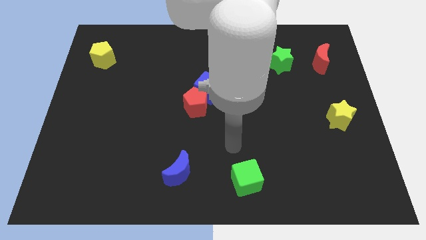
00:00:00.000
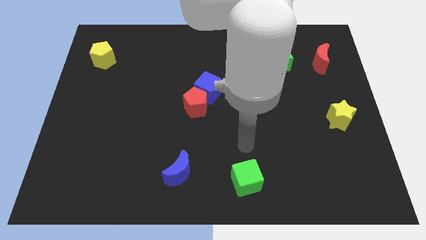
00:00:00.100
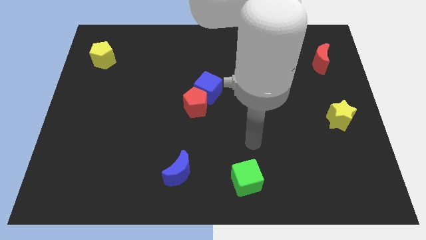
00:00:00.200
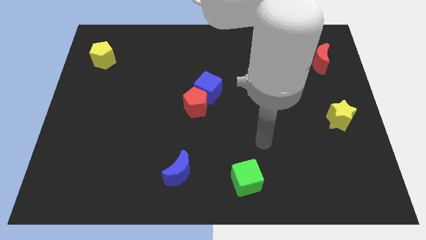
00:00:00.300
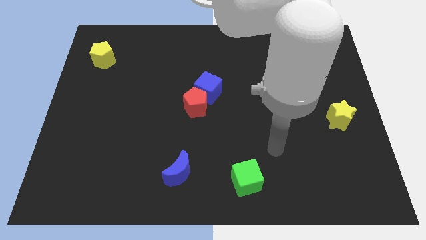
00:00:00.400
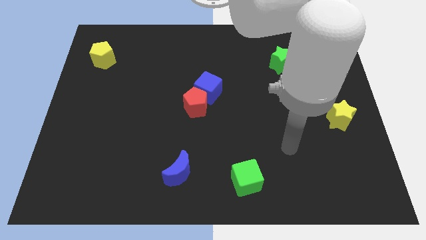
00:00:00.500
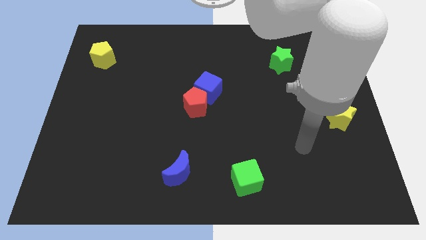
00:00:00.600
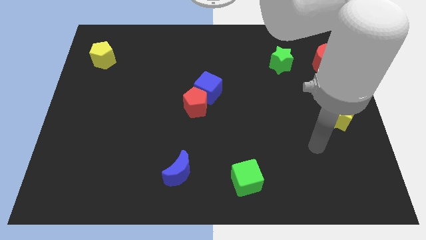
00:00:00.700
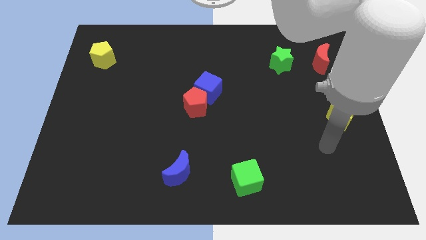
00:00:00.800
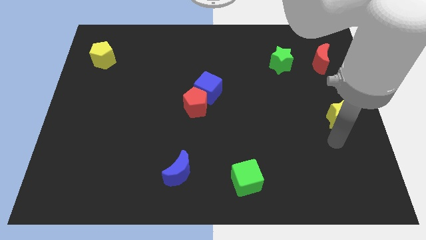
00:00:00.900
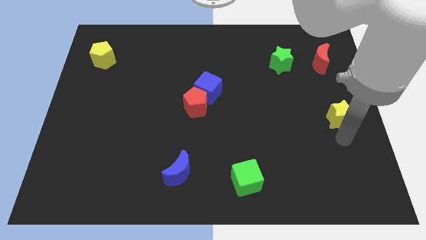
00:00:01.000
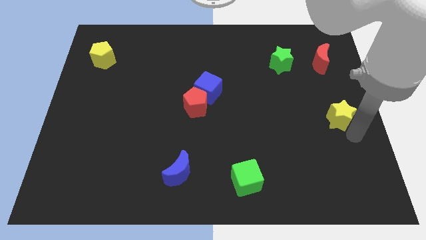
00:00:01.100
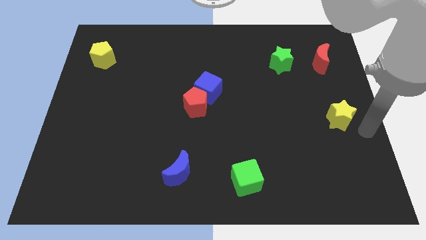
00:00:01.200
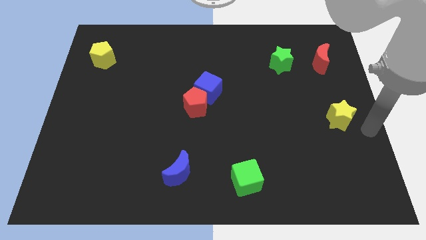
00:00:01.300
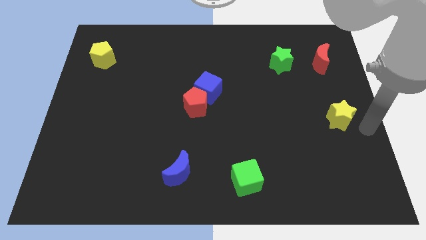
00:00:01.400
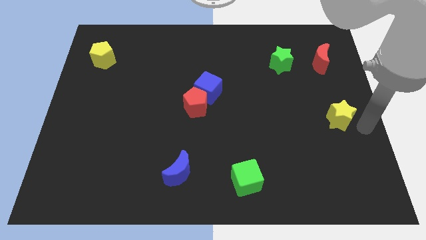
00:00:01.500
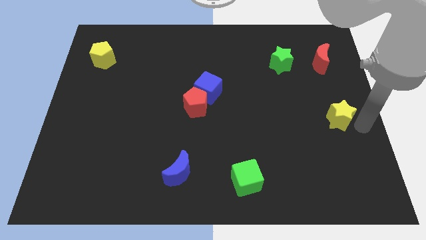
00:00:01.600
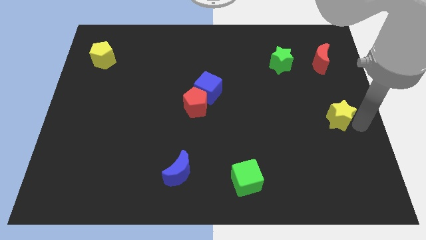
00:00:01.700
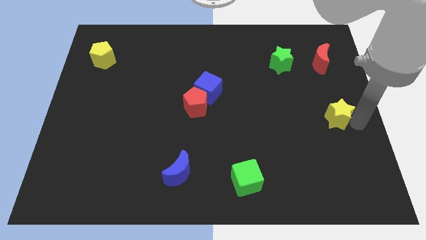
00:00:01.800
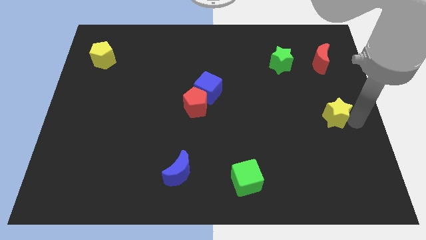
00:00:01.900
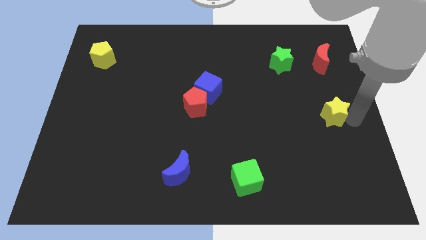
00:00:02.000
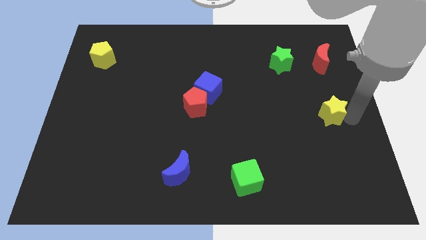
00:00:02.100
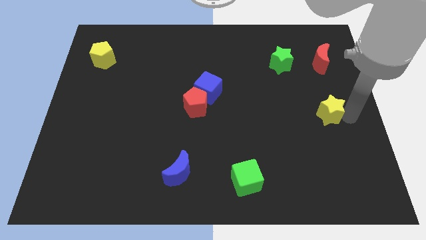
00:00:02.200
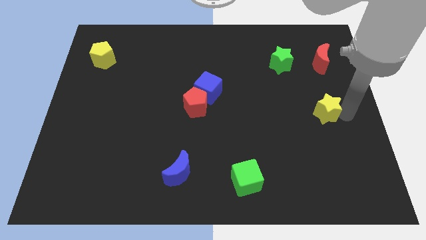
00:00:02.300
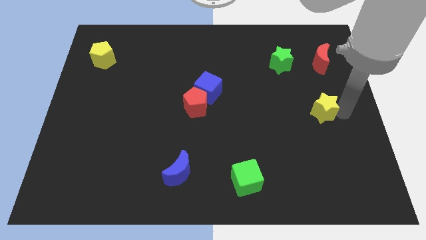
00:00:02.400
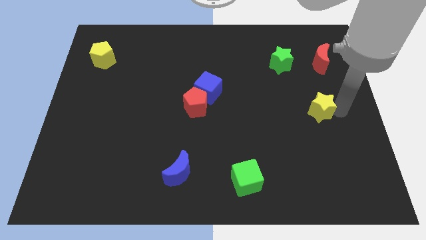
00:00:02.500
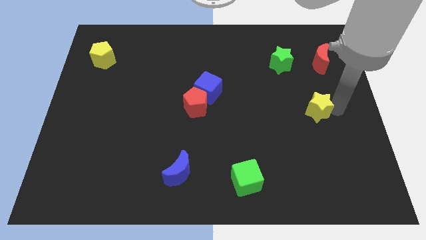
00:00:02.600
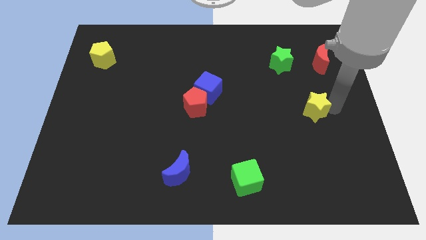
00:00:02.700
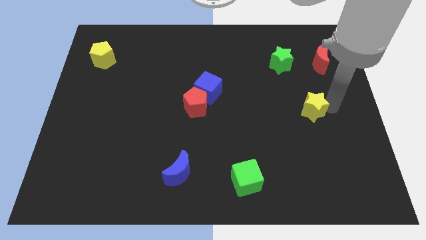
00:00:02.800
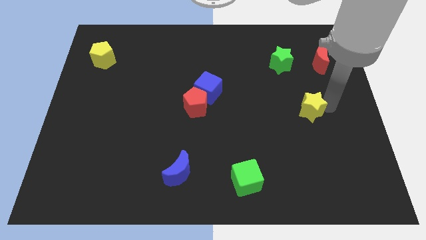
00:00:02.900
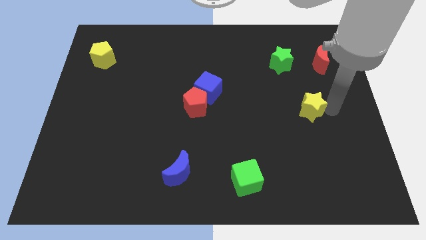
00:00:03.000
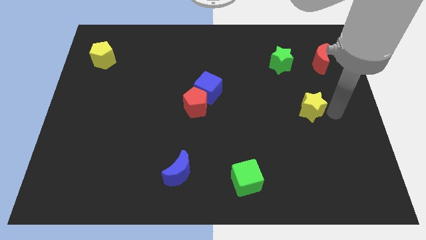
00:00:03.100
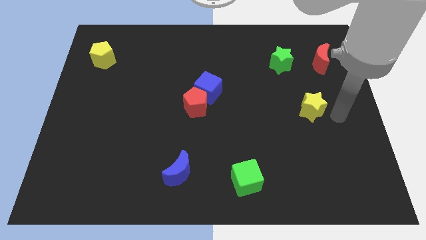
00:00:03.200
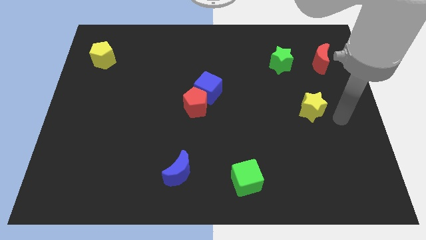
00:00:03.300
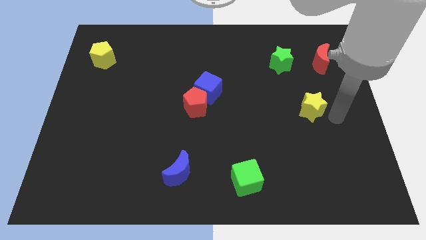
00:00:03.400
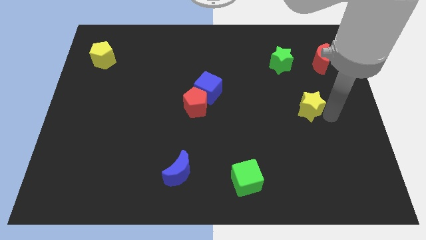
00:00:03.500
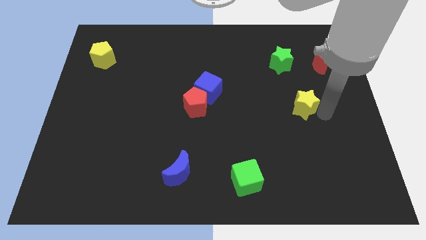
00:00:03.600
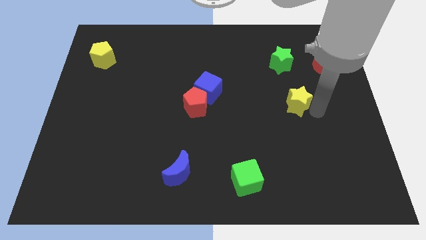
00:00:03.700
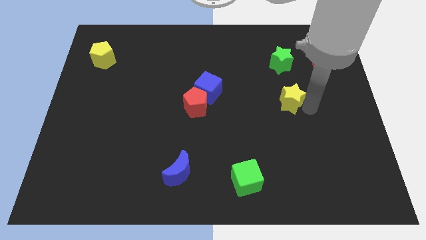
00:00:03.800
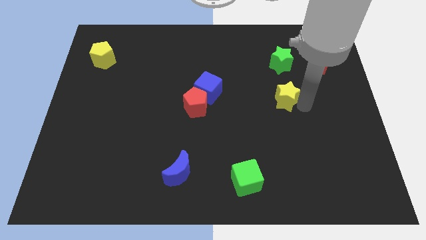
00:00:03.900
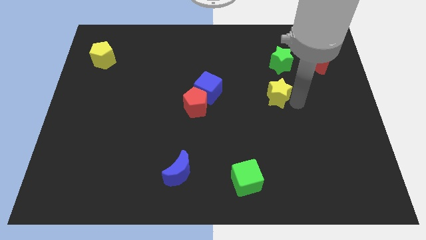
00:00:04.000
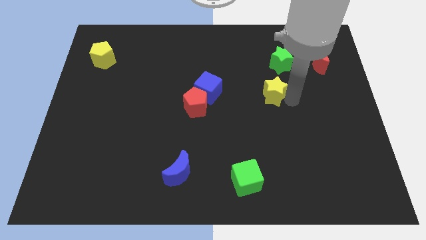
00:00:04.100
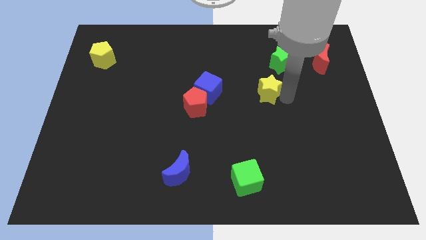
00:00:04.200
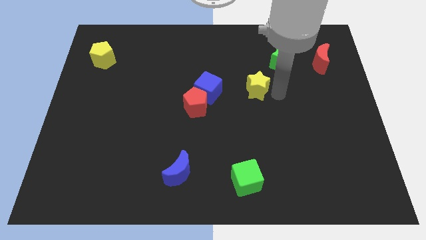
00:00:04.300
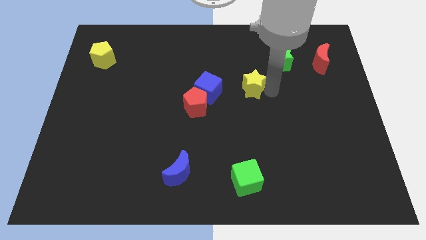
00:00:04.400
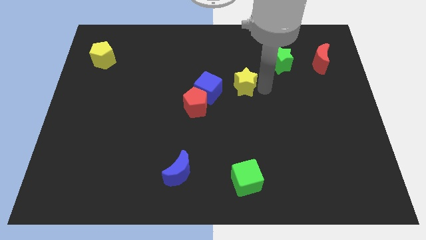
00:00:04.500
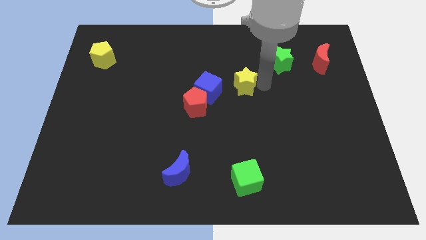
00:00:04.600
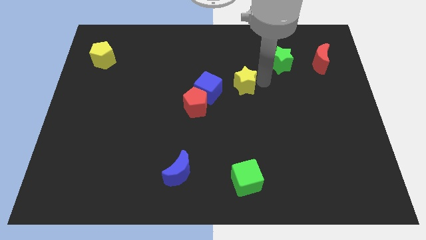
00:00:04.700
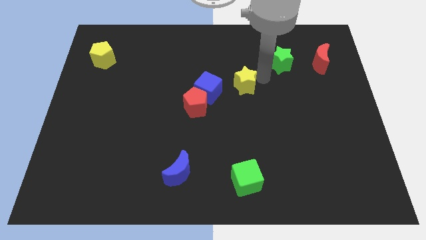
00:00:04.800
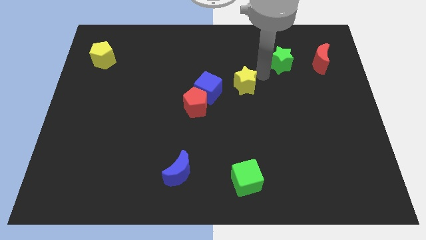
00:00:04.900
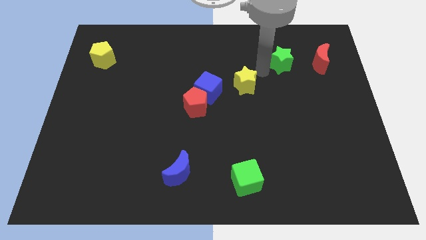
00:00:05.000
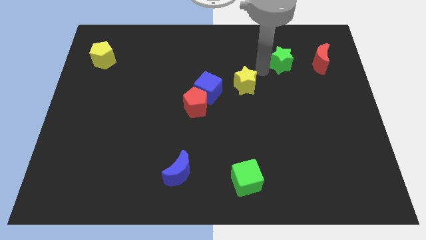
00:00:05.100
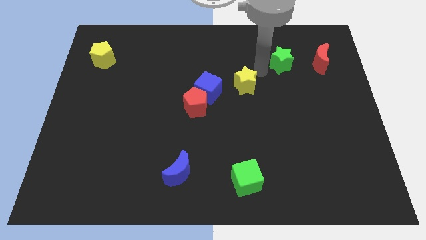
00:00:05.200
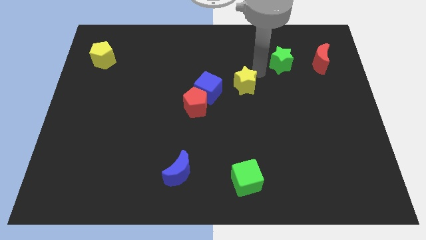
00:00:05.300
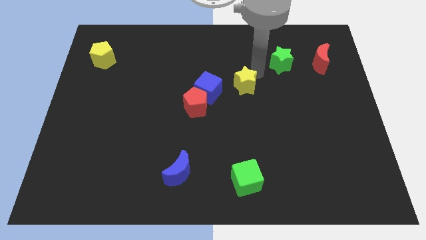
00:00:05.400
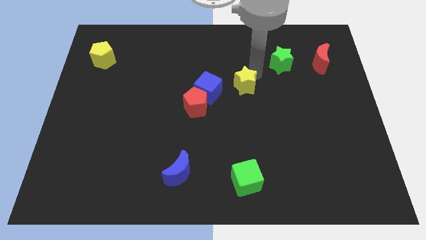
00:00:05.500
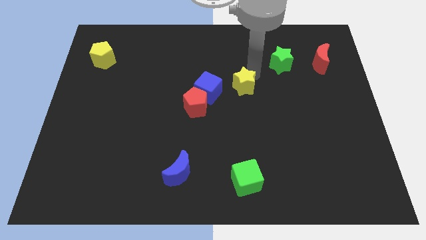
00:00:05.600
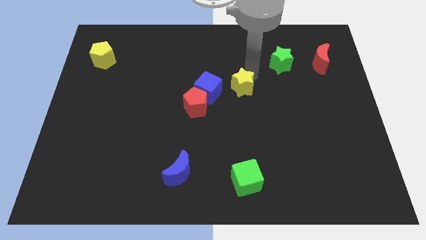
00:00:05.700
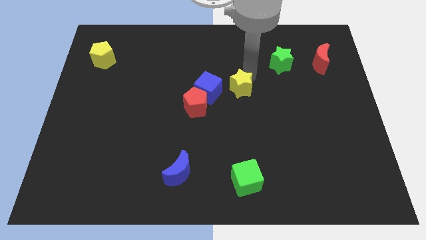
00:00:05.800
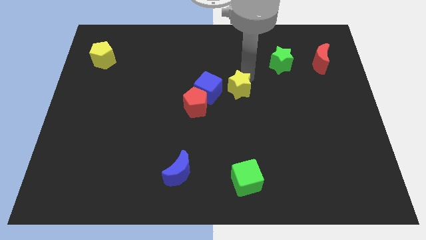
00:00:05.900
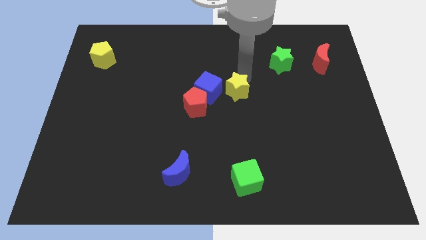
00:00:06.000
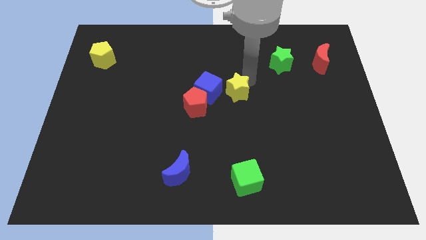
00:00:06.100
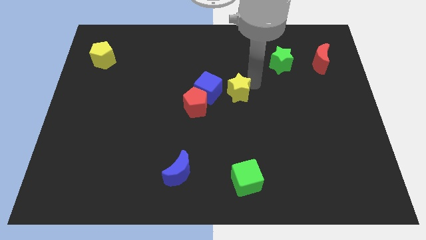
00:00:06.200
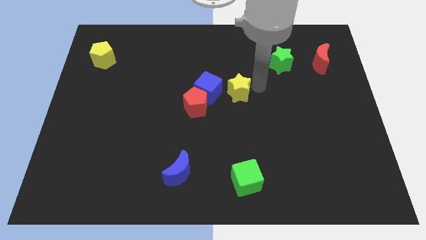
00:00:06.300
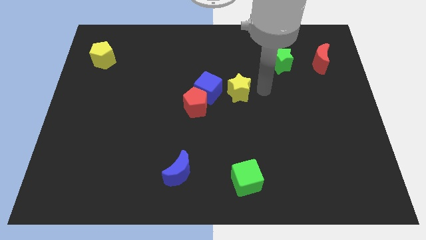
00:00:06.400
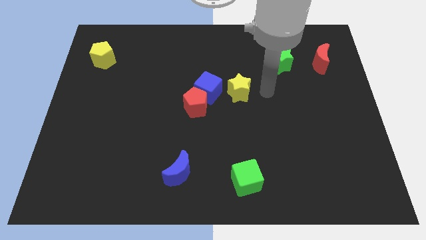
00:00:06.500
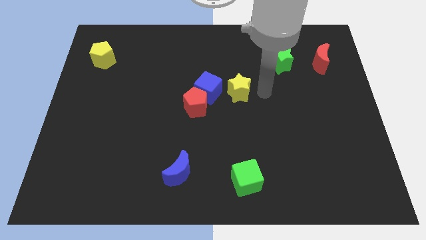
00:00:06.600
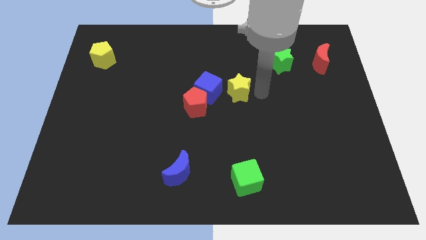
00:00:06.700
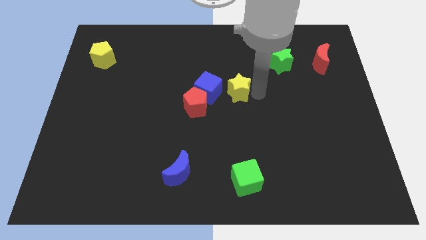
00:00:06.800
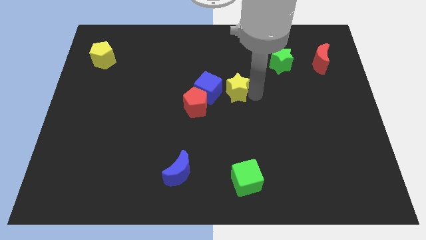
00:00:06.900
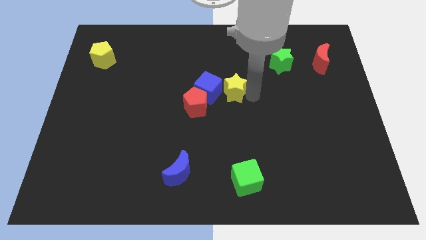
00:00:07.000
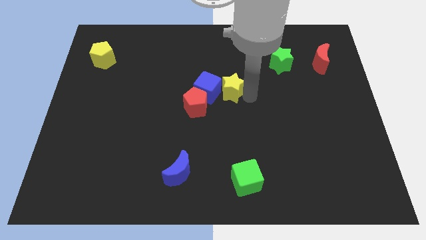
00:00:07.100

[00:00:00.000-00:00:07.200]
move the yellow star close to the blue cube
